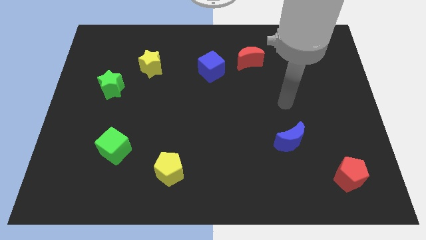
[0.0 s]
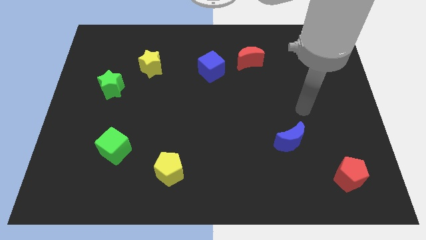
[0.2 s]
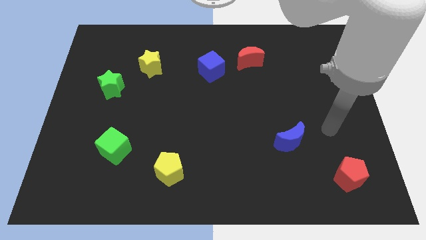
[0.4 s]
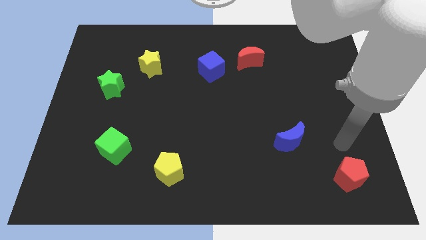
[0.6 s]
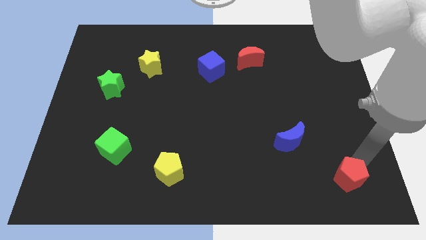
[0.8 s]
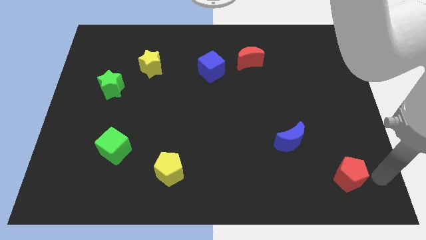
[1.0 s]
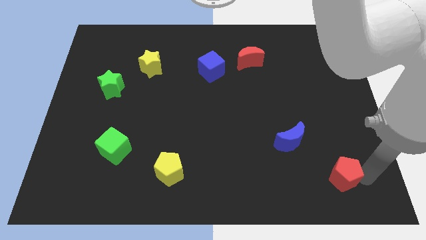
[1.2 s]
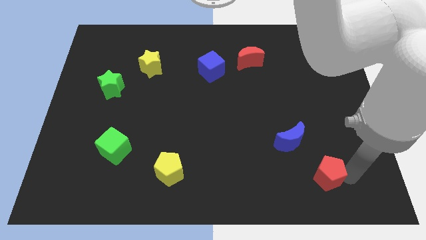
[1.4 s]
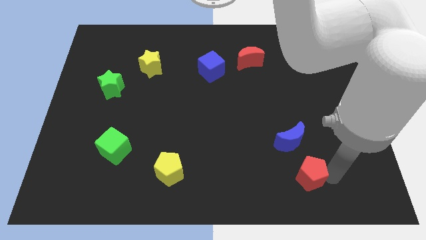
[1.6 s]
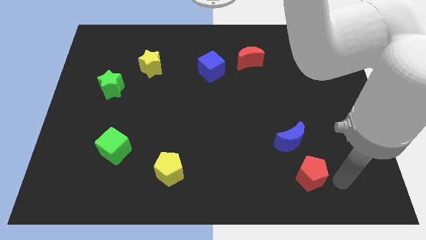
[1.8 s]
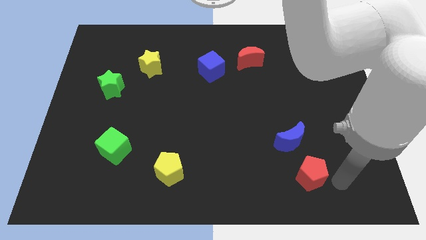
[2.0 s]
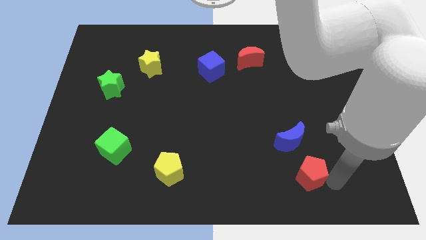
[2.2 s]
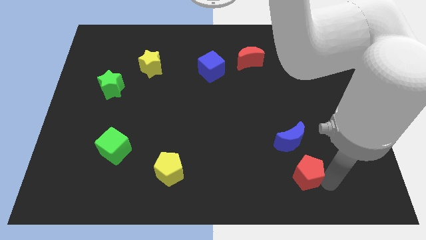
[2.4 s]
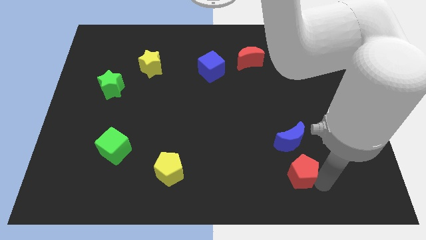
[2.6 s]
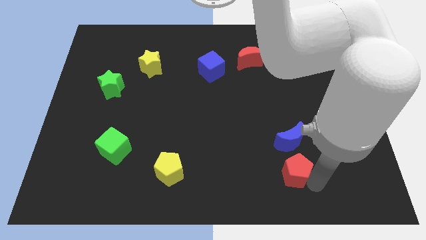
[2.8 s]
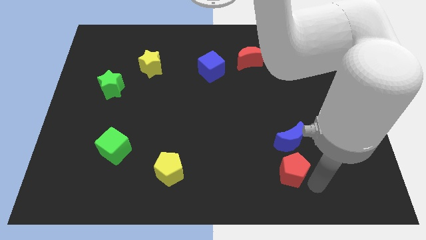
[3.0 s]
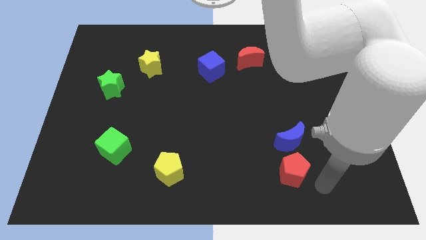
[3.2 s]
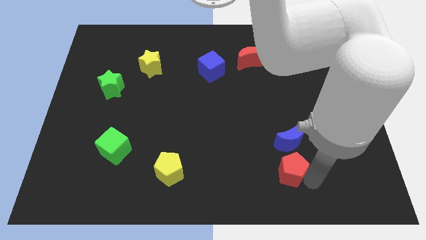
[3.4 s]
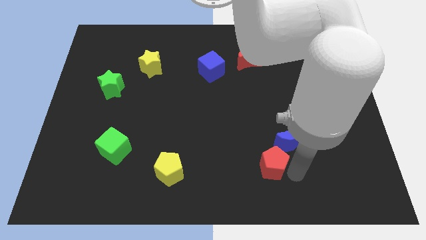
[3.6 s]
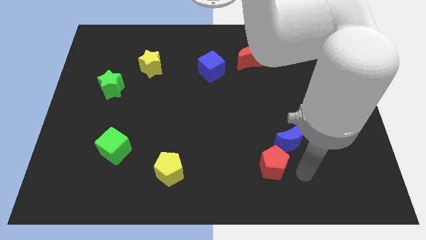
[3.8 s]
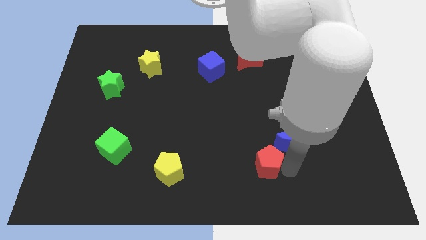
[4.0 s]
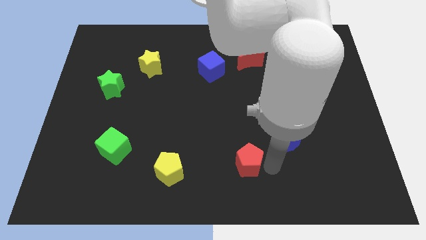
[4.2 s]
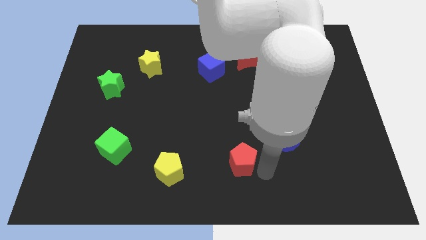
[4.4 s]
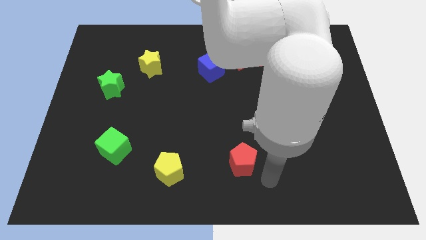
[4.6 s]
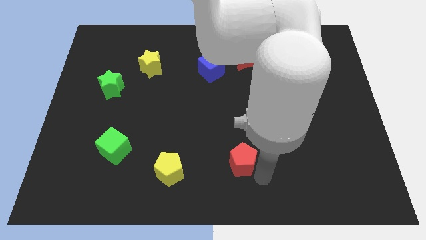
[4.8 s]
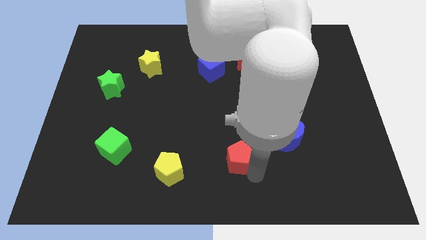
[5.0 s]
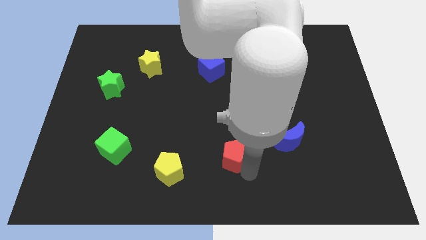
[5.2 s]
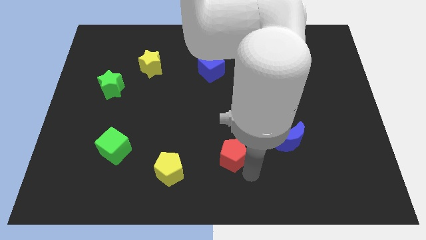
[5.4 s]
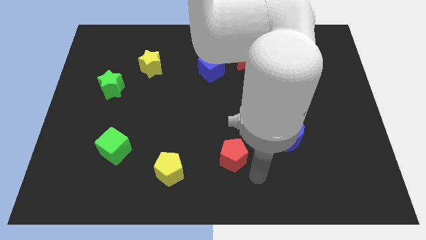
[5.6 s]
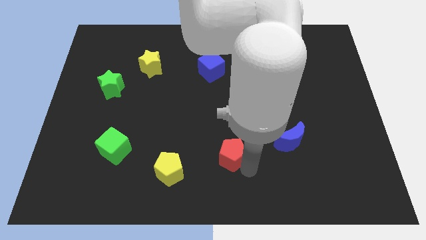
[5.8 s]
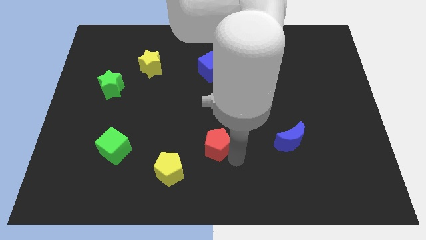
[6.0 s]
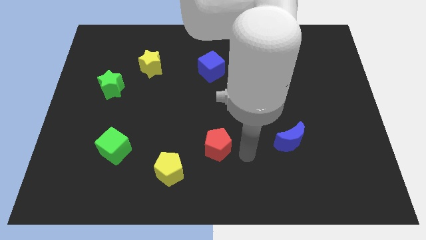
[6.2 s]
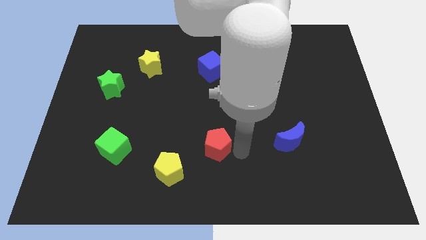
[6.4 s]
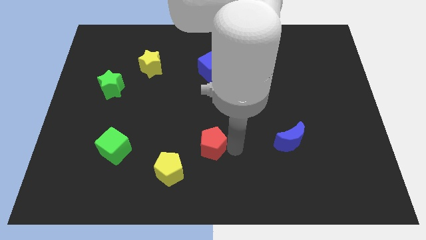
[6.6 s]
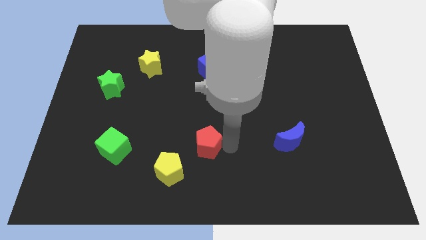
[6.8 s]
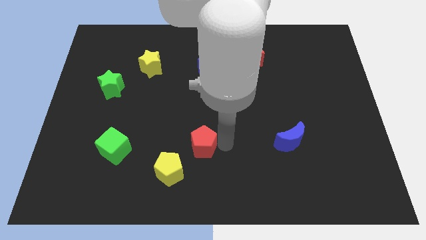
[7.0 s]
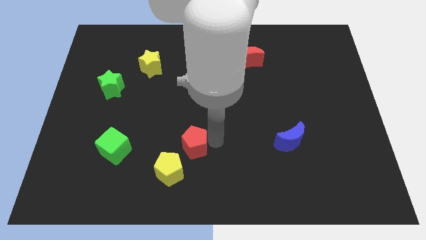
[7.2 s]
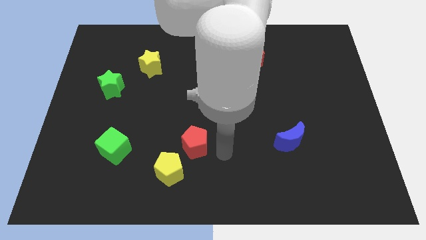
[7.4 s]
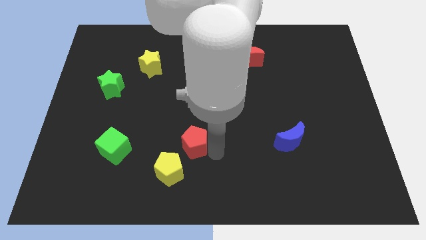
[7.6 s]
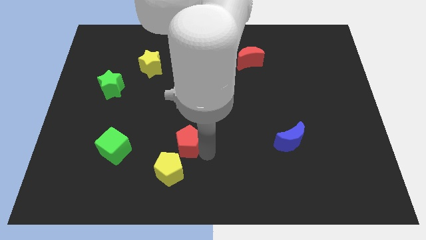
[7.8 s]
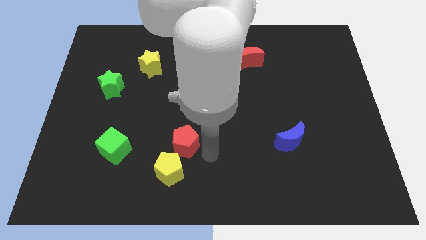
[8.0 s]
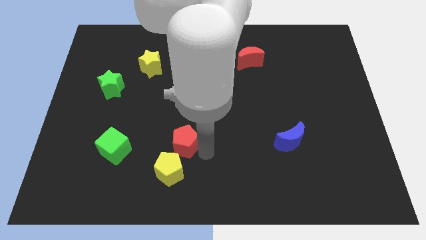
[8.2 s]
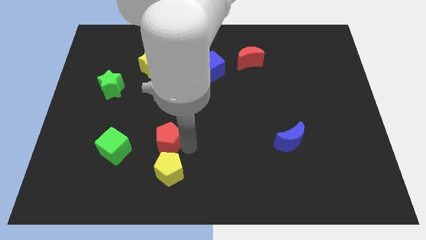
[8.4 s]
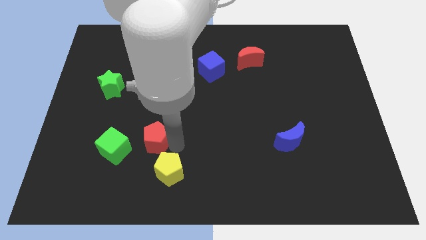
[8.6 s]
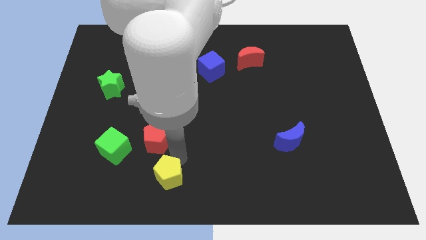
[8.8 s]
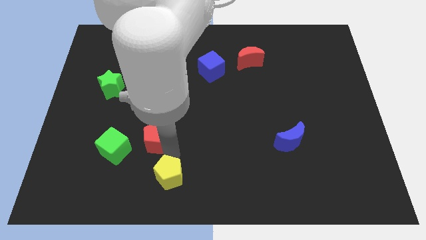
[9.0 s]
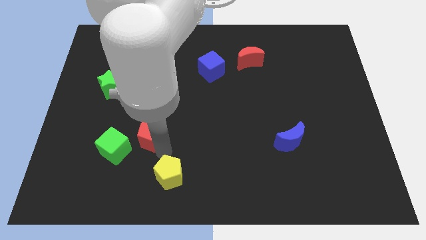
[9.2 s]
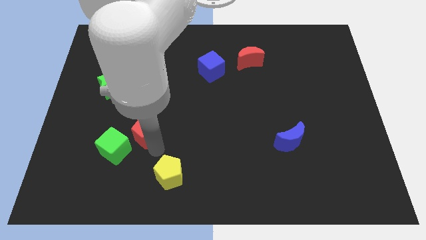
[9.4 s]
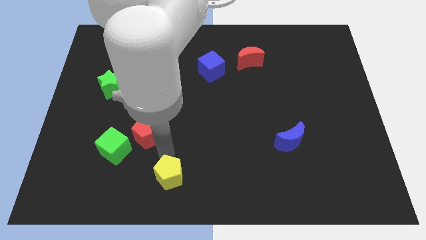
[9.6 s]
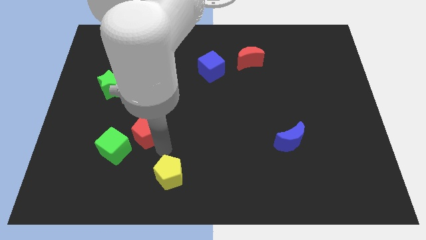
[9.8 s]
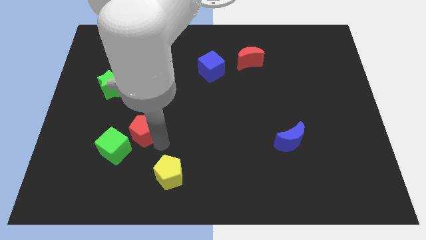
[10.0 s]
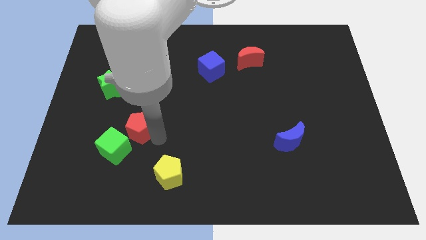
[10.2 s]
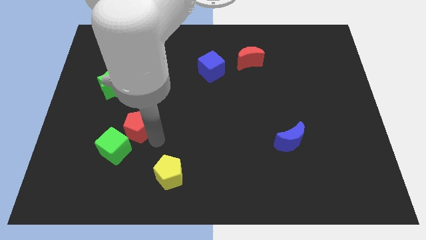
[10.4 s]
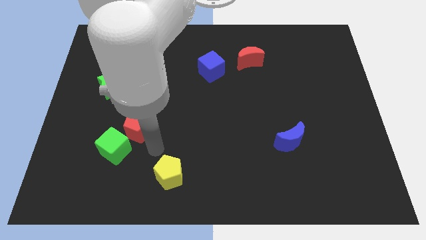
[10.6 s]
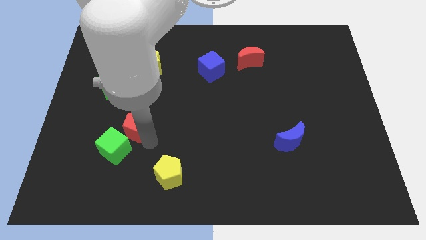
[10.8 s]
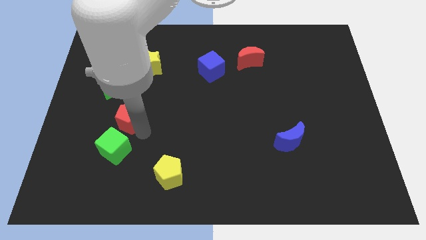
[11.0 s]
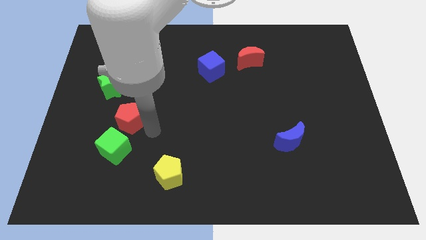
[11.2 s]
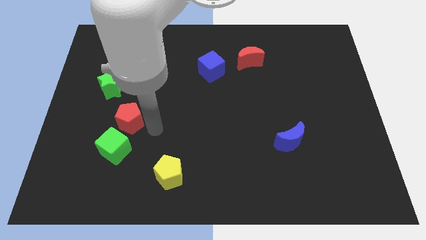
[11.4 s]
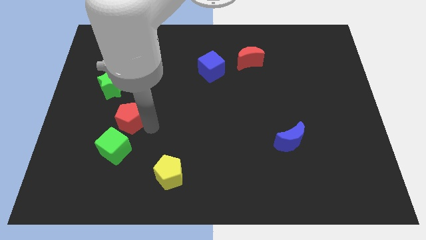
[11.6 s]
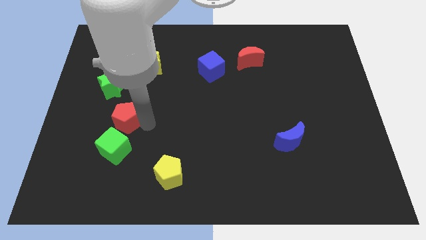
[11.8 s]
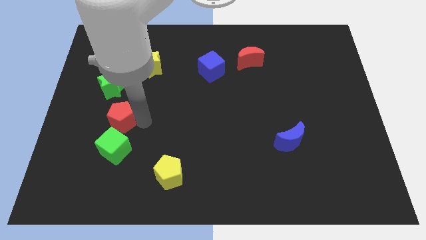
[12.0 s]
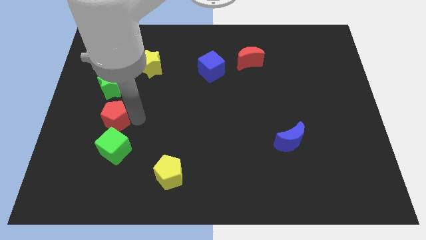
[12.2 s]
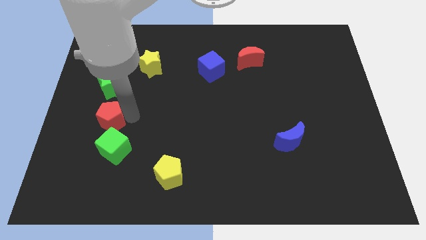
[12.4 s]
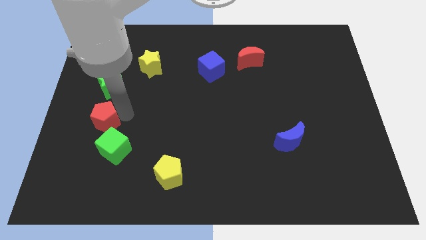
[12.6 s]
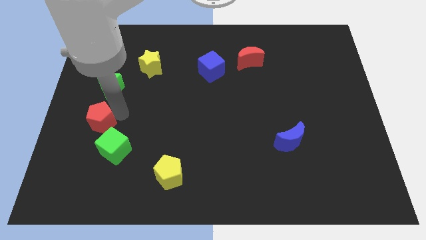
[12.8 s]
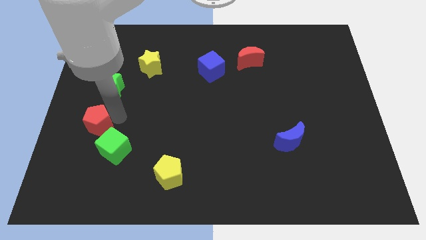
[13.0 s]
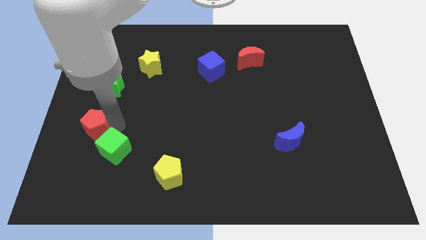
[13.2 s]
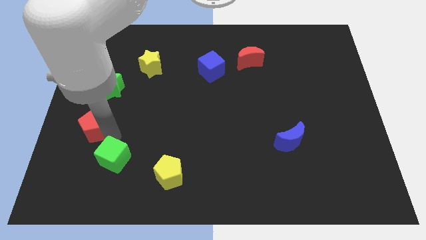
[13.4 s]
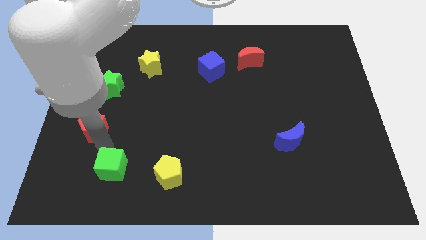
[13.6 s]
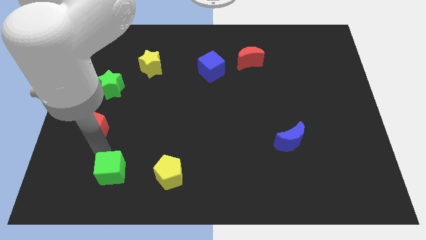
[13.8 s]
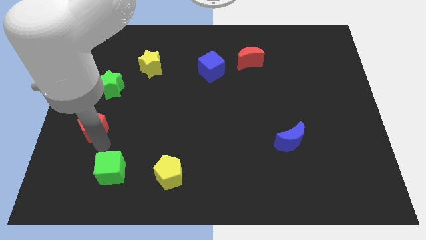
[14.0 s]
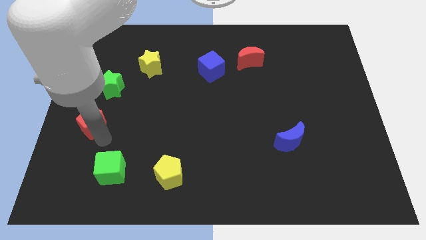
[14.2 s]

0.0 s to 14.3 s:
push the red pentagon to the center left
